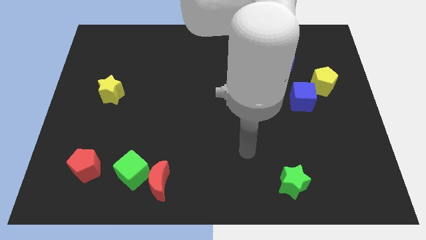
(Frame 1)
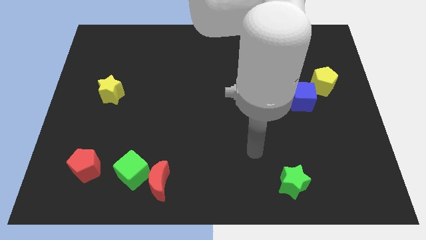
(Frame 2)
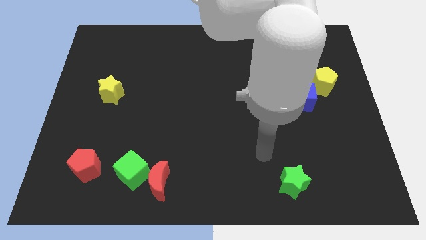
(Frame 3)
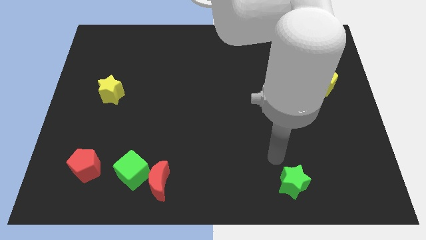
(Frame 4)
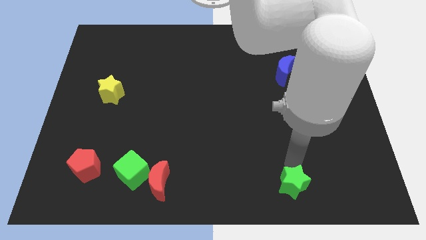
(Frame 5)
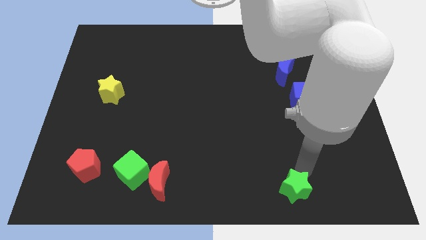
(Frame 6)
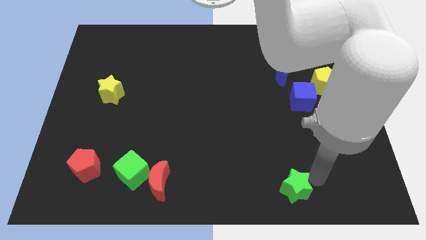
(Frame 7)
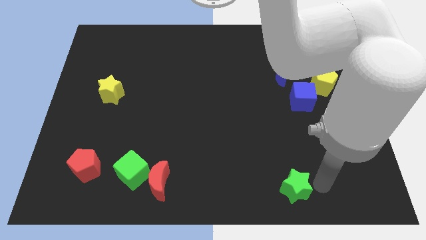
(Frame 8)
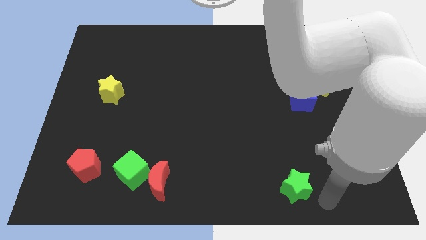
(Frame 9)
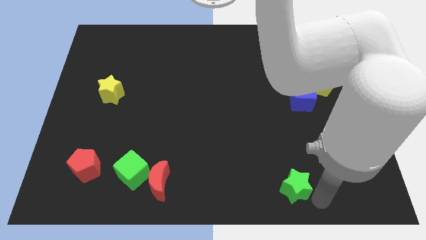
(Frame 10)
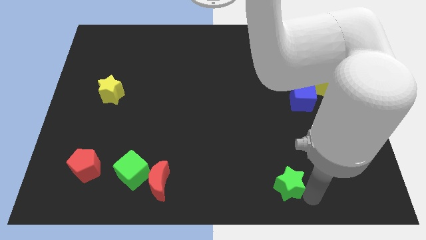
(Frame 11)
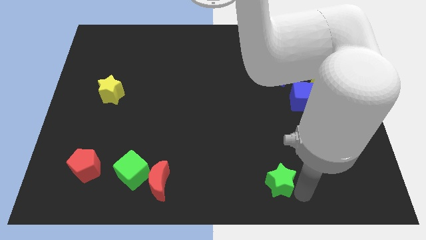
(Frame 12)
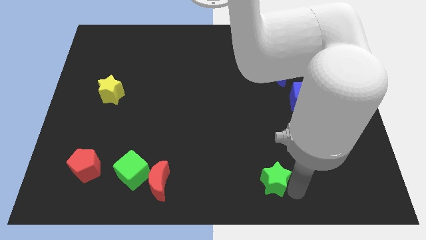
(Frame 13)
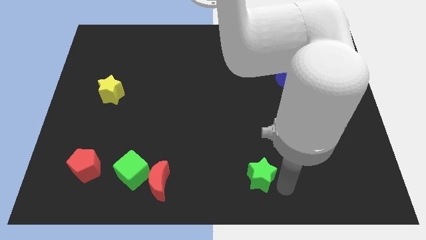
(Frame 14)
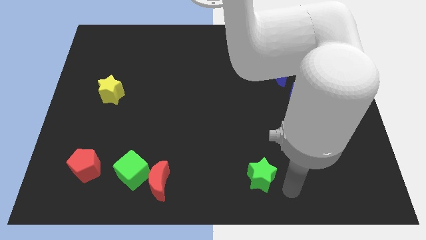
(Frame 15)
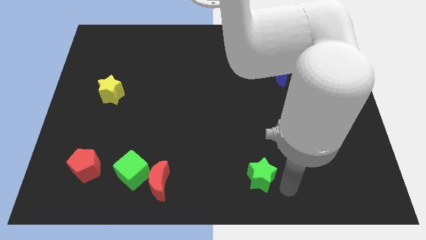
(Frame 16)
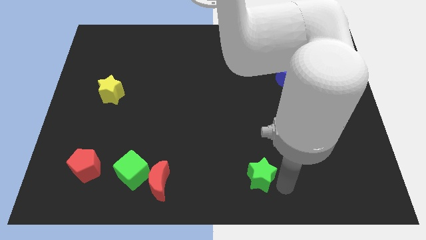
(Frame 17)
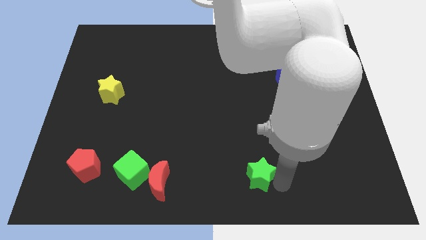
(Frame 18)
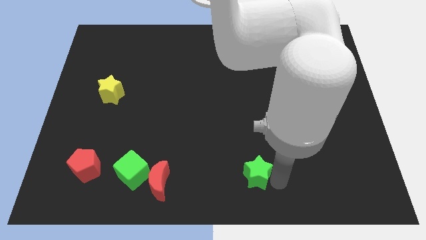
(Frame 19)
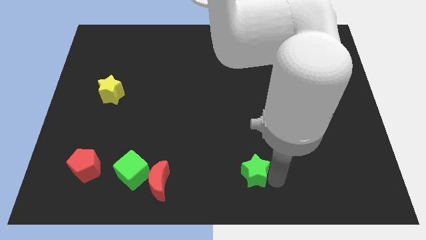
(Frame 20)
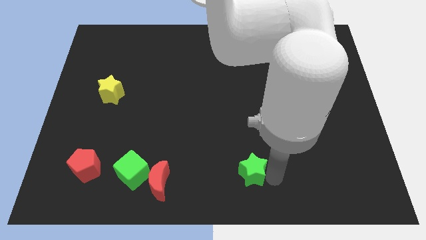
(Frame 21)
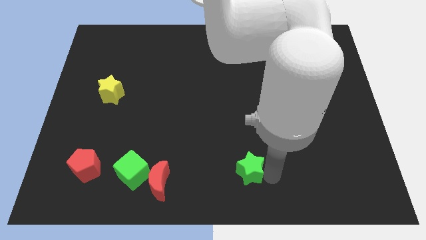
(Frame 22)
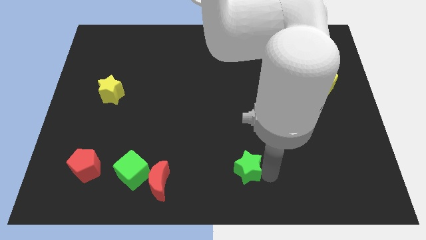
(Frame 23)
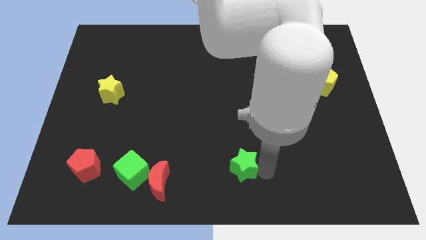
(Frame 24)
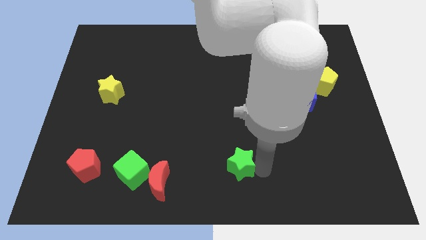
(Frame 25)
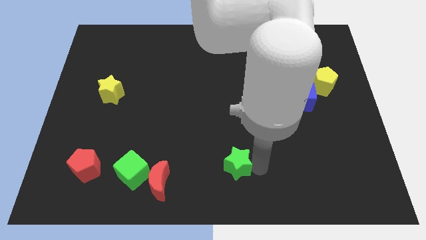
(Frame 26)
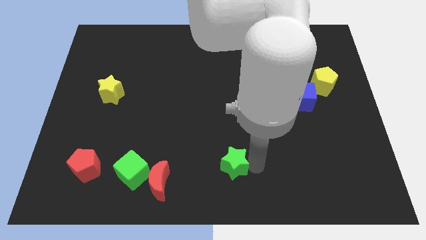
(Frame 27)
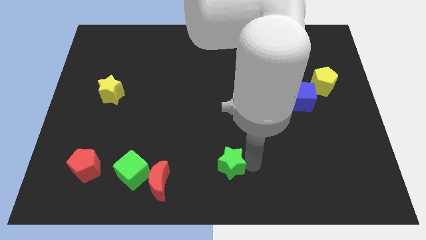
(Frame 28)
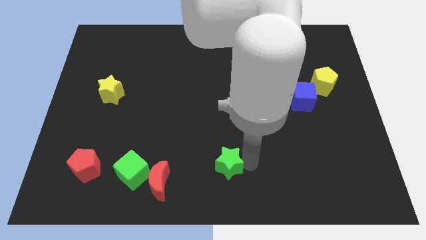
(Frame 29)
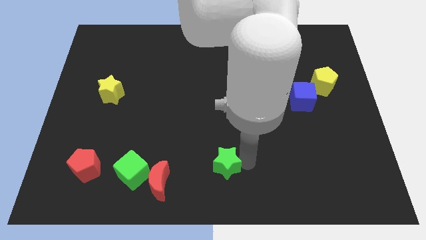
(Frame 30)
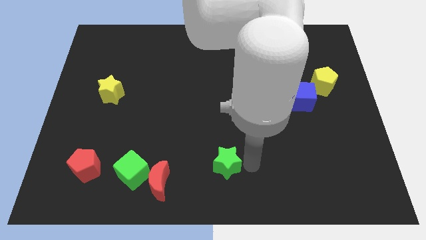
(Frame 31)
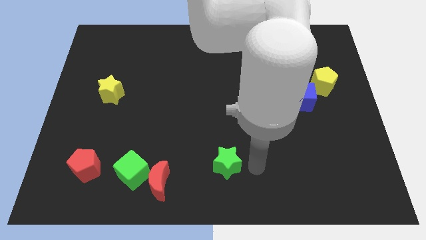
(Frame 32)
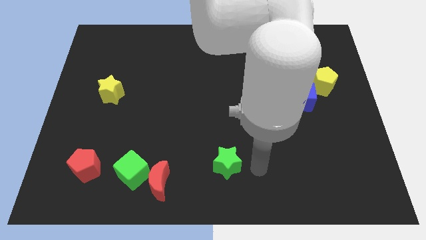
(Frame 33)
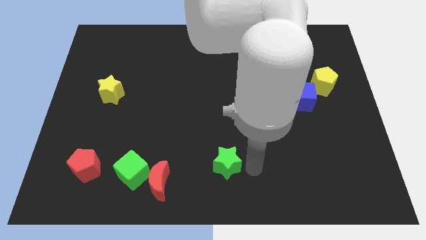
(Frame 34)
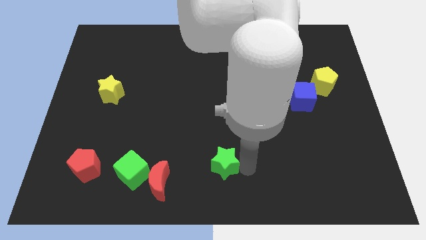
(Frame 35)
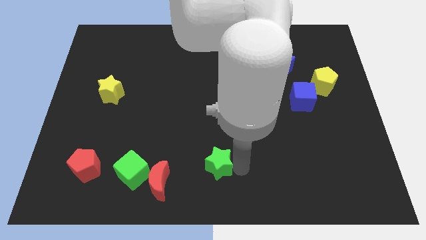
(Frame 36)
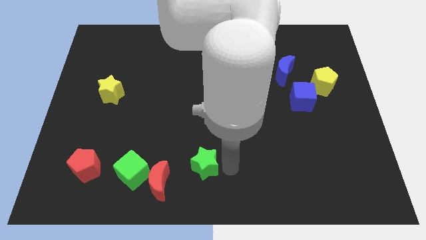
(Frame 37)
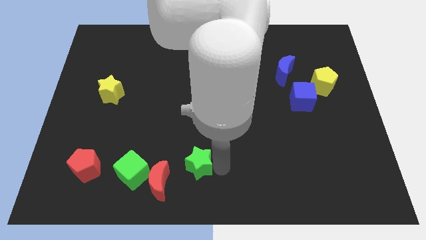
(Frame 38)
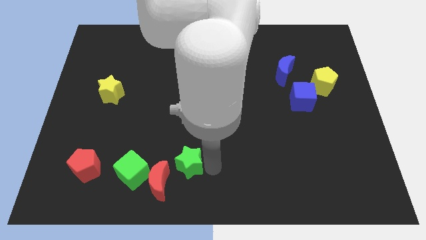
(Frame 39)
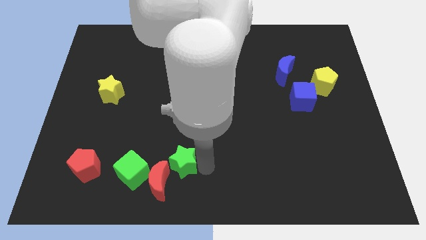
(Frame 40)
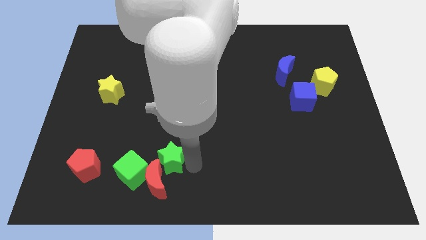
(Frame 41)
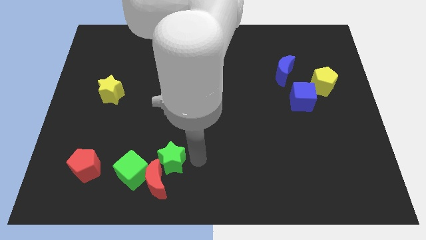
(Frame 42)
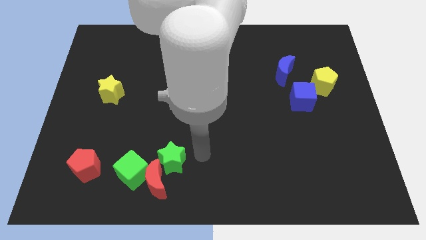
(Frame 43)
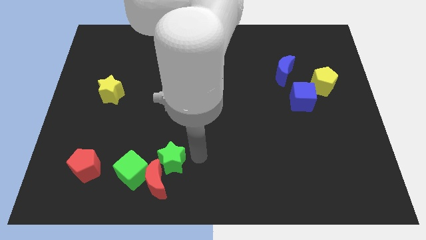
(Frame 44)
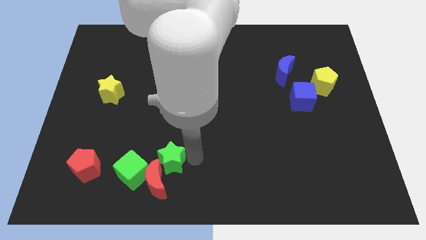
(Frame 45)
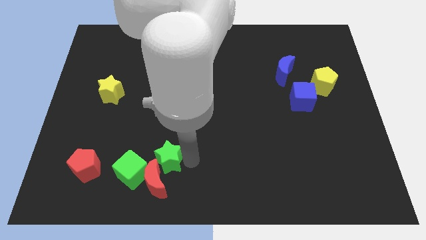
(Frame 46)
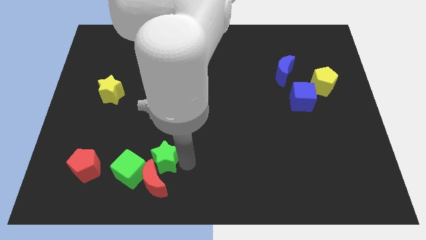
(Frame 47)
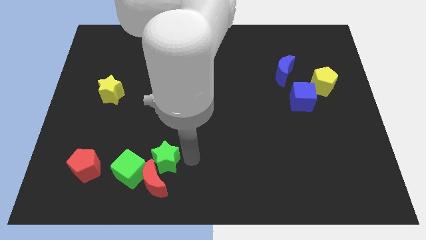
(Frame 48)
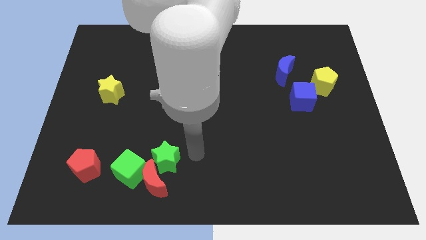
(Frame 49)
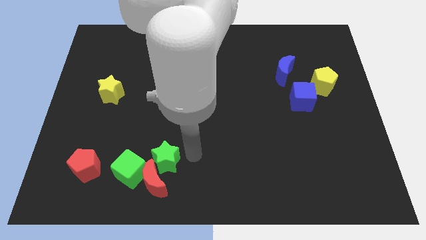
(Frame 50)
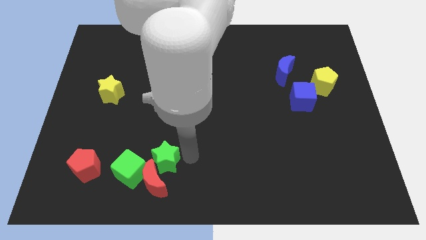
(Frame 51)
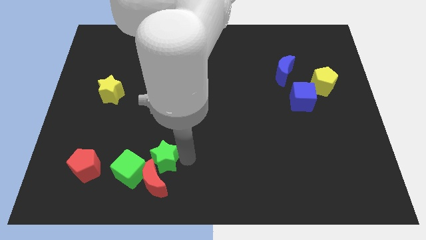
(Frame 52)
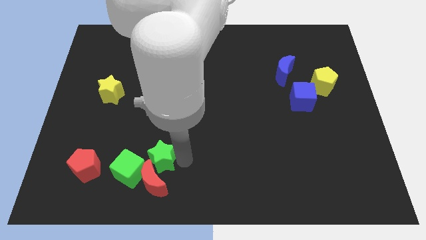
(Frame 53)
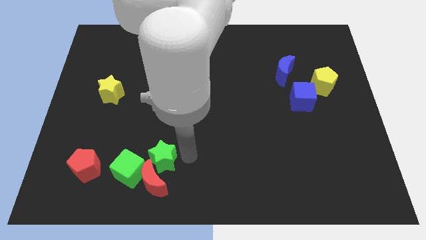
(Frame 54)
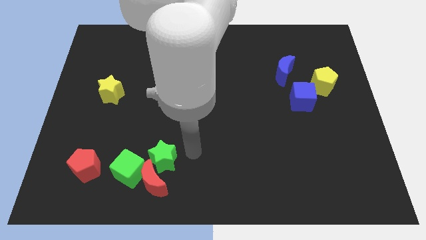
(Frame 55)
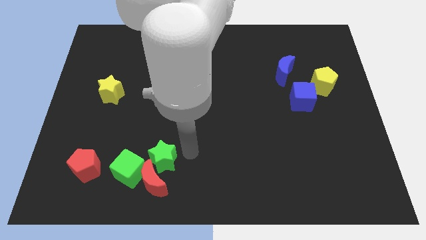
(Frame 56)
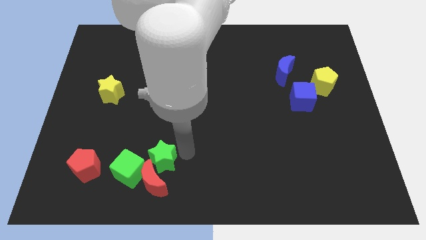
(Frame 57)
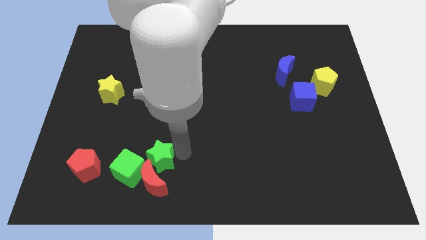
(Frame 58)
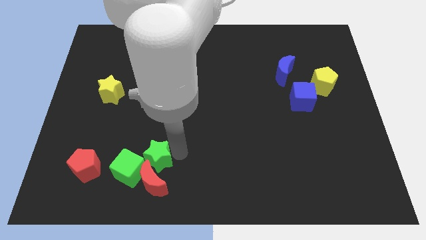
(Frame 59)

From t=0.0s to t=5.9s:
push the green star close to the green cube

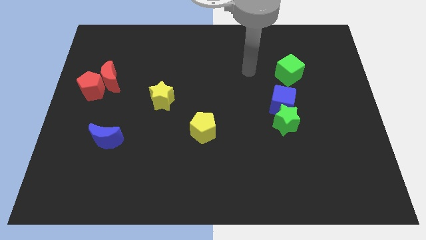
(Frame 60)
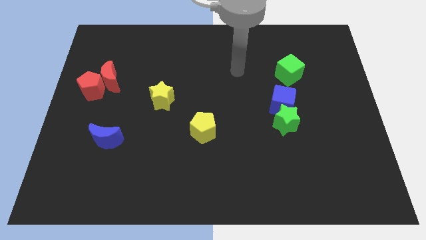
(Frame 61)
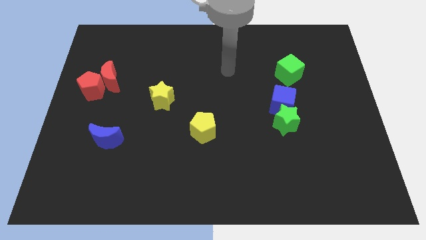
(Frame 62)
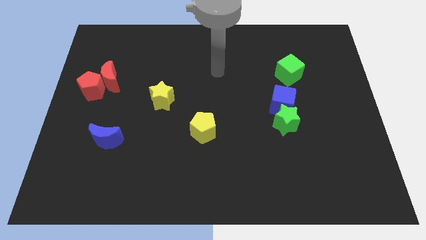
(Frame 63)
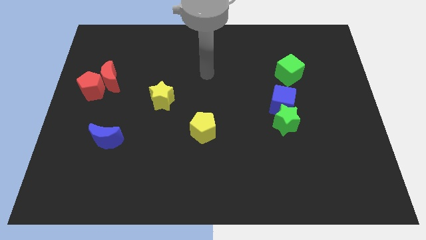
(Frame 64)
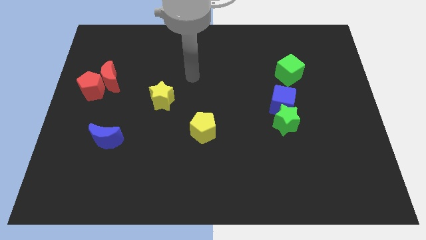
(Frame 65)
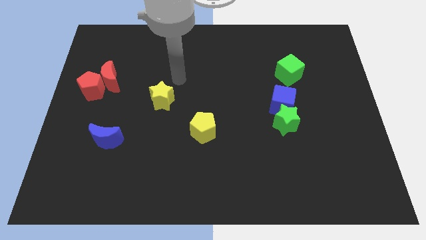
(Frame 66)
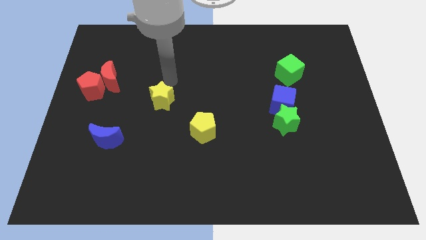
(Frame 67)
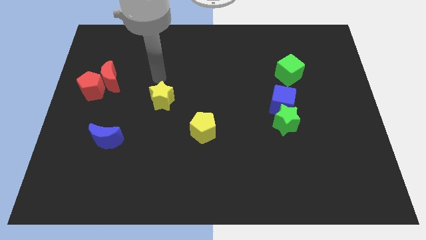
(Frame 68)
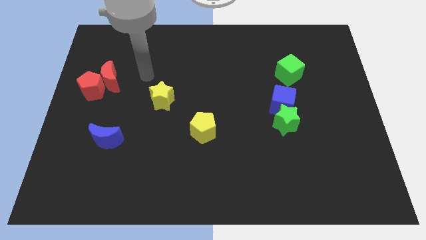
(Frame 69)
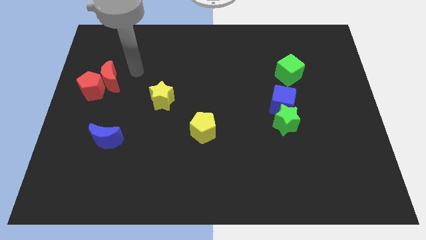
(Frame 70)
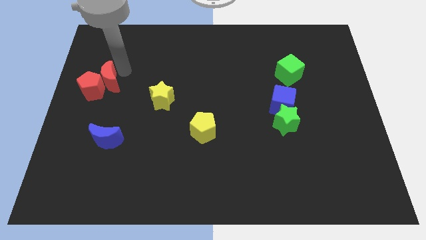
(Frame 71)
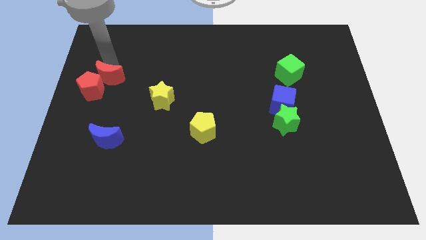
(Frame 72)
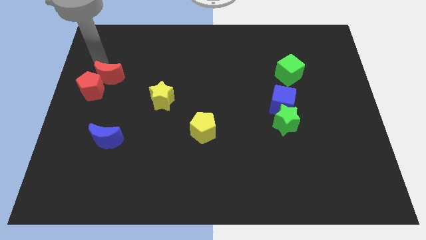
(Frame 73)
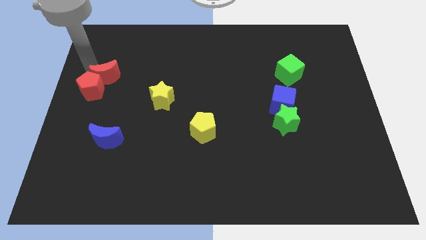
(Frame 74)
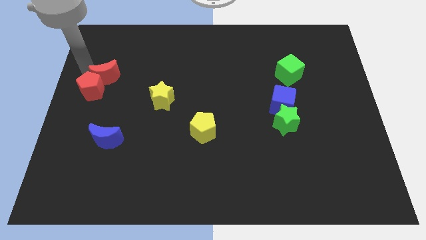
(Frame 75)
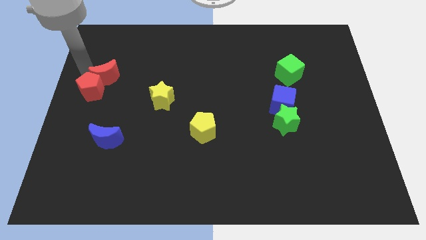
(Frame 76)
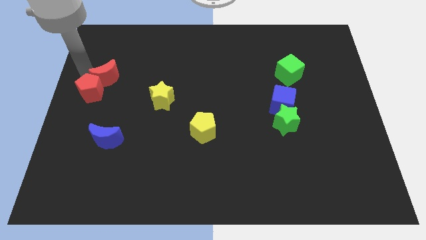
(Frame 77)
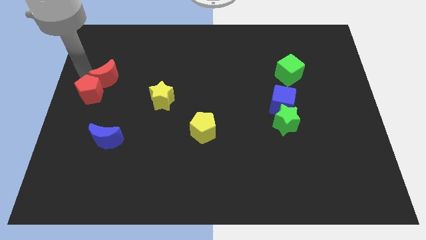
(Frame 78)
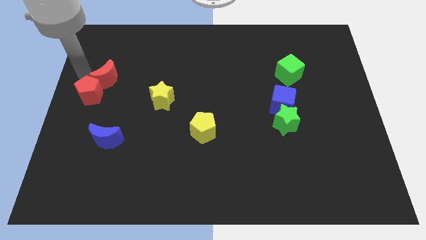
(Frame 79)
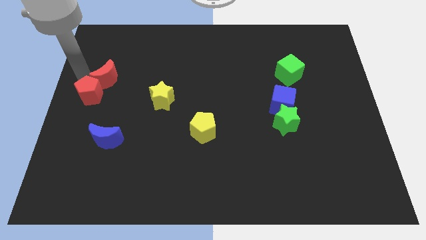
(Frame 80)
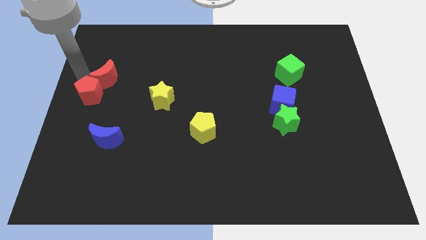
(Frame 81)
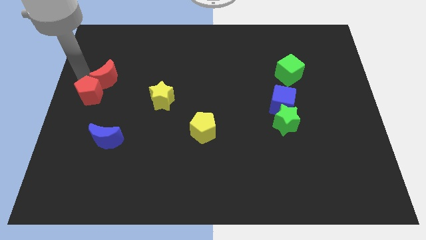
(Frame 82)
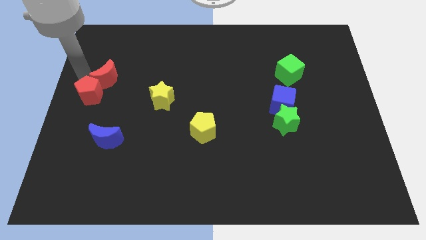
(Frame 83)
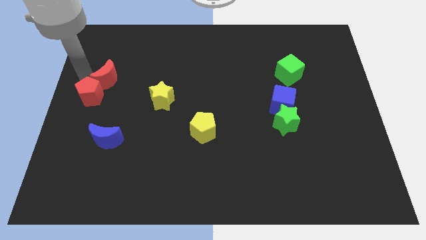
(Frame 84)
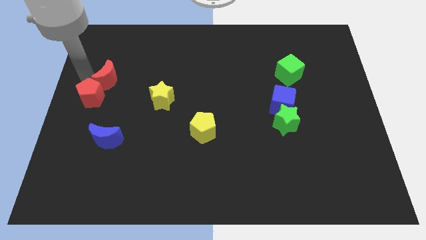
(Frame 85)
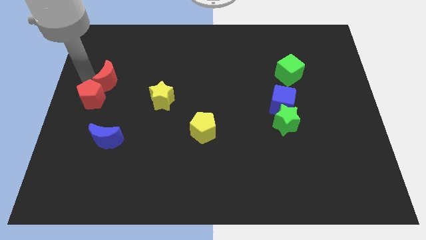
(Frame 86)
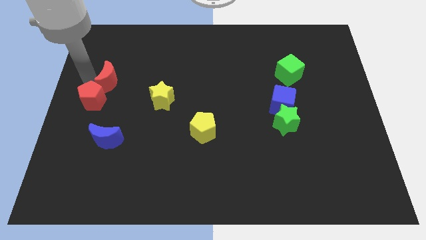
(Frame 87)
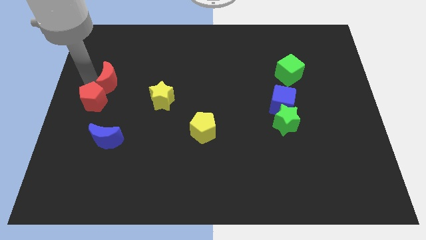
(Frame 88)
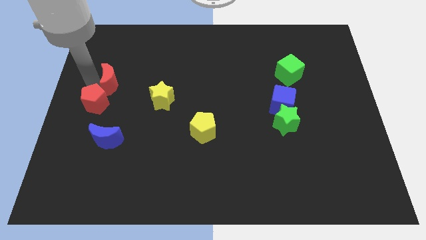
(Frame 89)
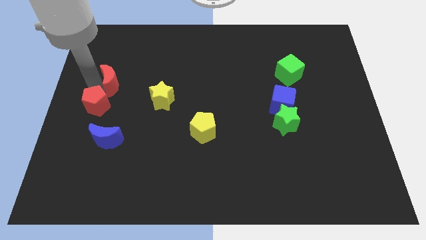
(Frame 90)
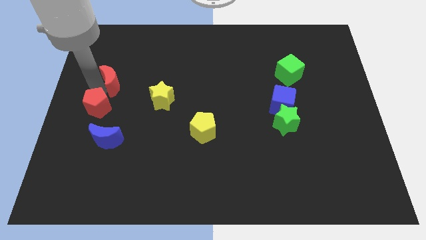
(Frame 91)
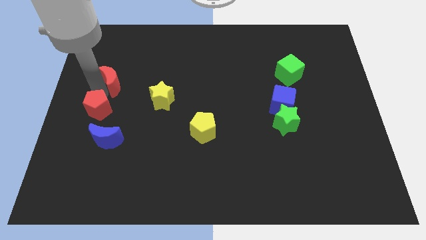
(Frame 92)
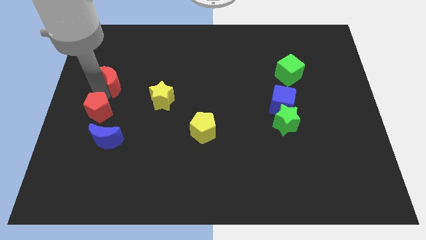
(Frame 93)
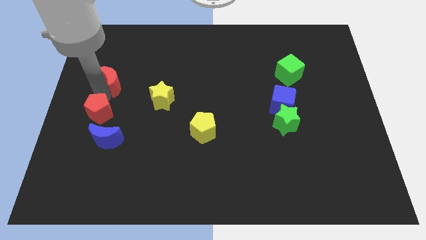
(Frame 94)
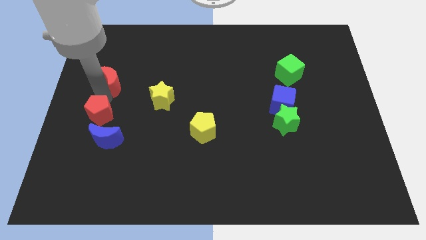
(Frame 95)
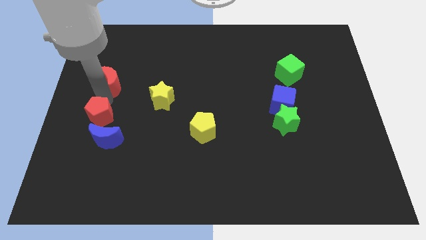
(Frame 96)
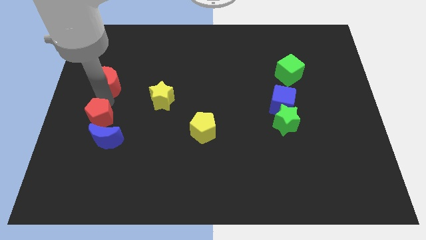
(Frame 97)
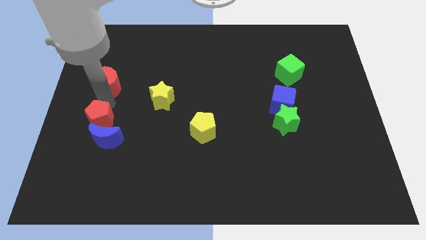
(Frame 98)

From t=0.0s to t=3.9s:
move the red pentagon towards the blue moon
